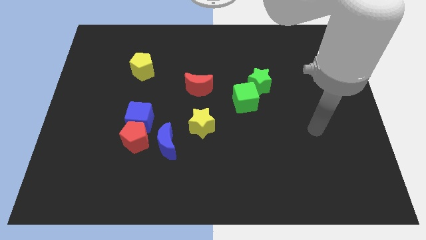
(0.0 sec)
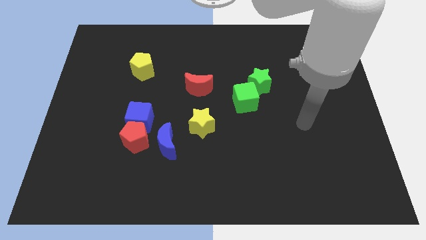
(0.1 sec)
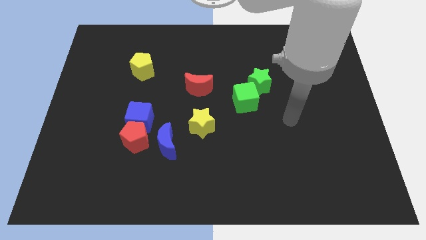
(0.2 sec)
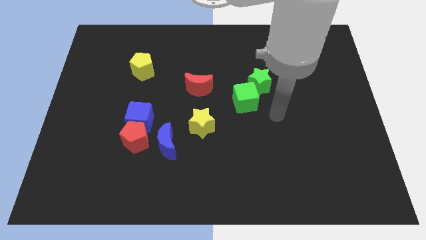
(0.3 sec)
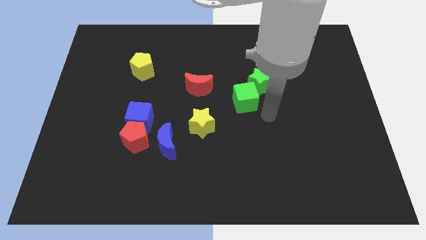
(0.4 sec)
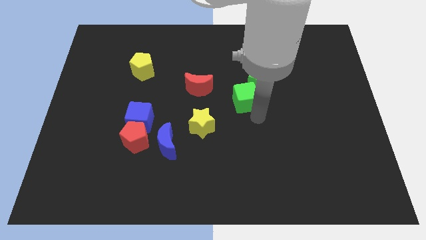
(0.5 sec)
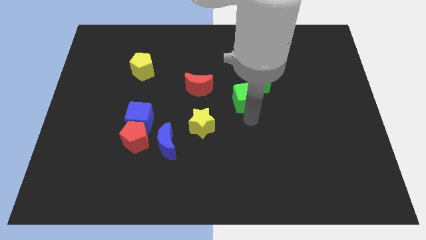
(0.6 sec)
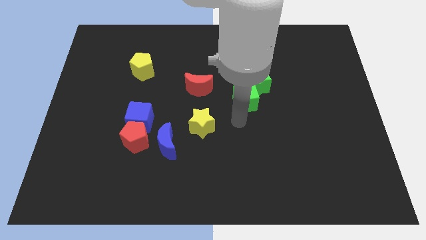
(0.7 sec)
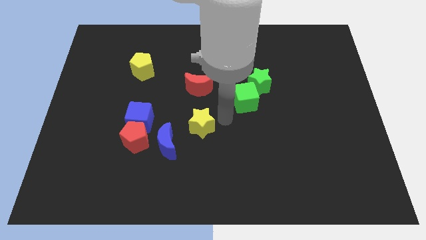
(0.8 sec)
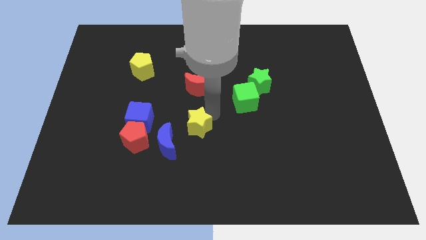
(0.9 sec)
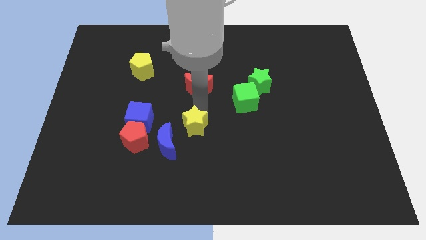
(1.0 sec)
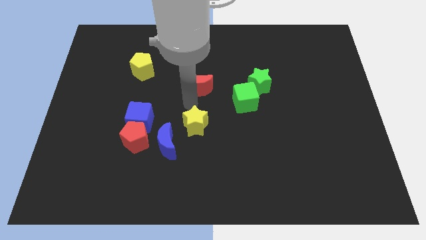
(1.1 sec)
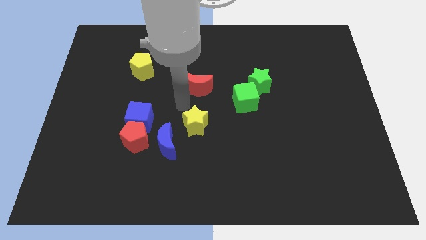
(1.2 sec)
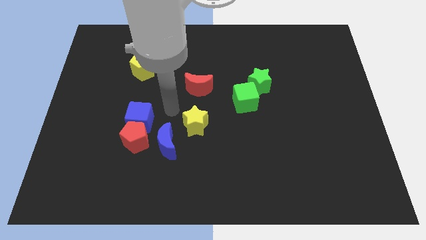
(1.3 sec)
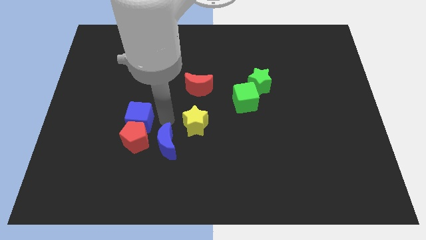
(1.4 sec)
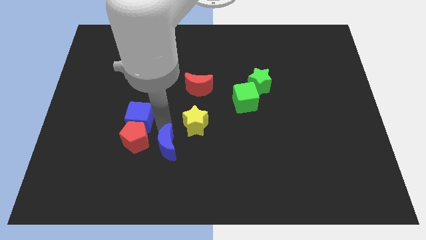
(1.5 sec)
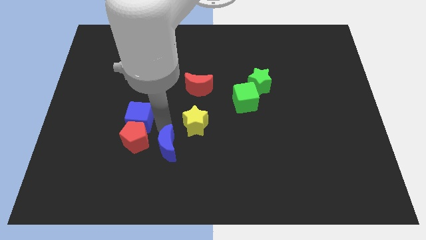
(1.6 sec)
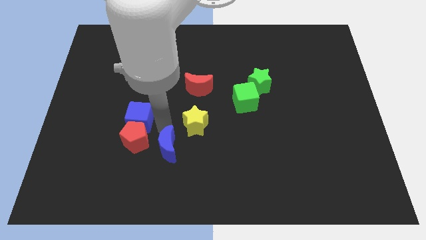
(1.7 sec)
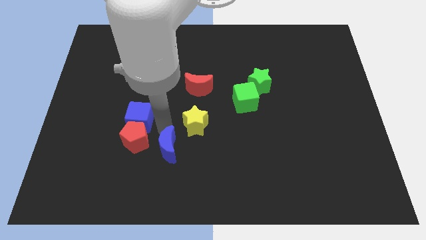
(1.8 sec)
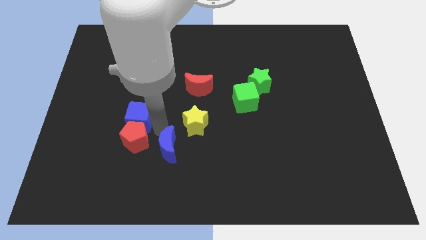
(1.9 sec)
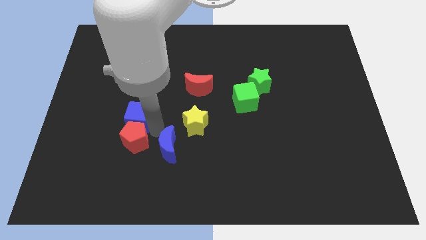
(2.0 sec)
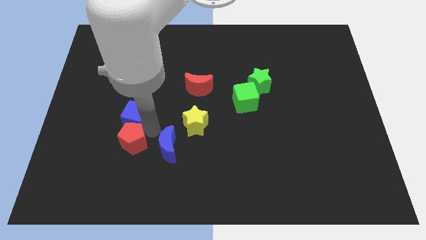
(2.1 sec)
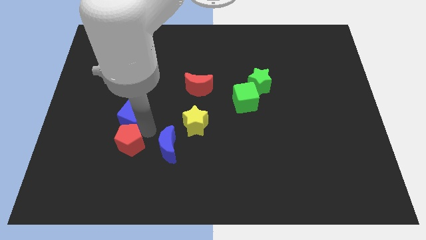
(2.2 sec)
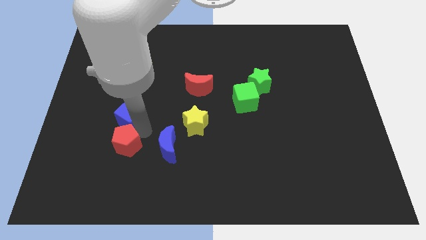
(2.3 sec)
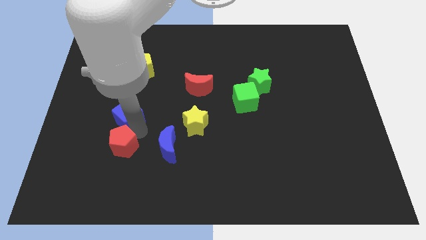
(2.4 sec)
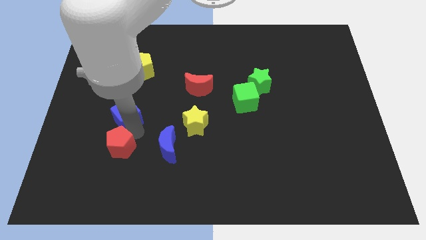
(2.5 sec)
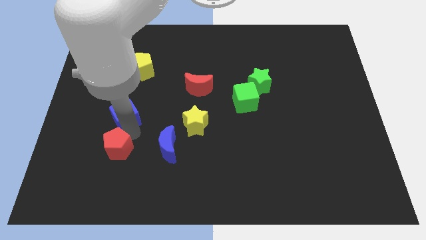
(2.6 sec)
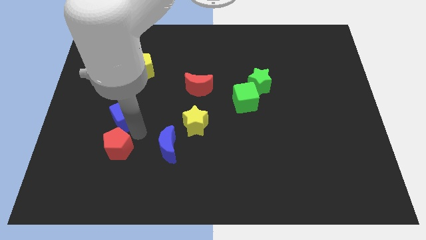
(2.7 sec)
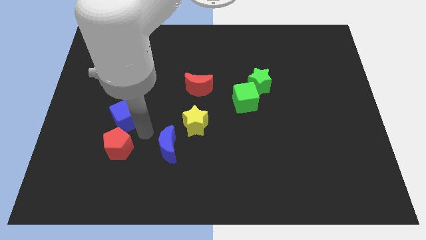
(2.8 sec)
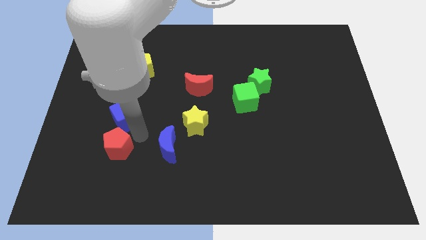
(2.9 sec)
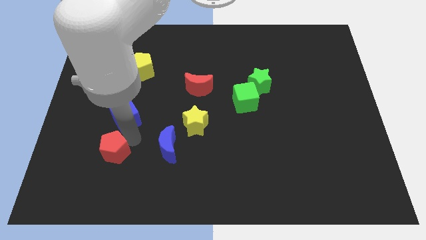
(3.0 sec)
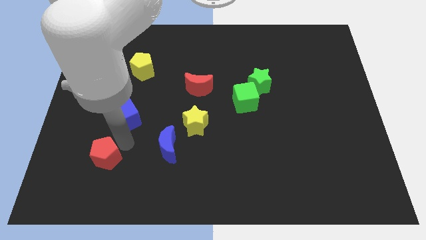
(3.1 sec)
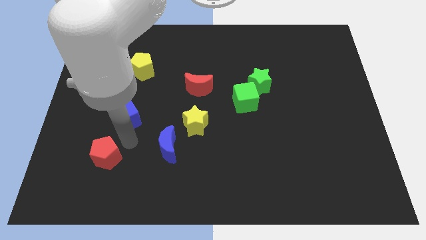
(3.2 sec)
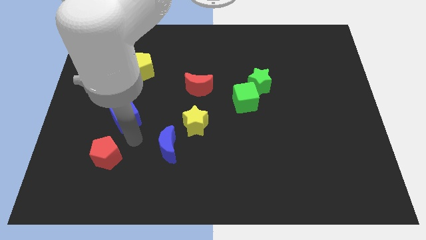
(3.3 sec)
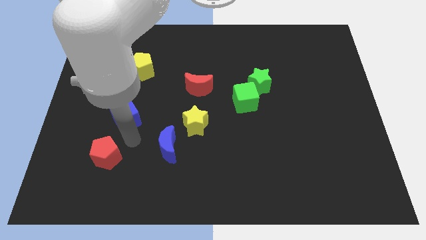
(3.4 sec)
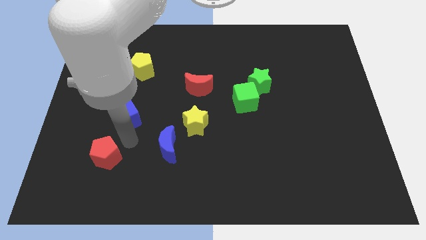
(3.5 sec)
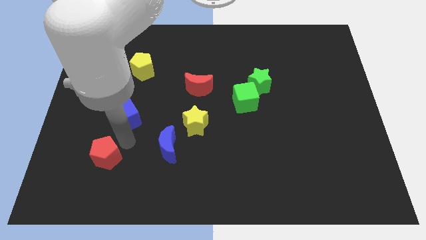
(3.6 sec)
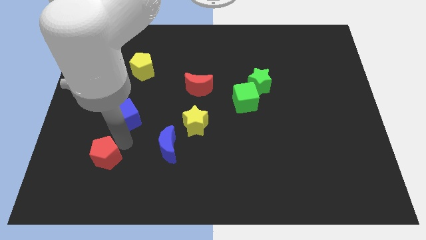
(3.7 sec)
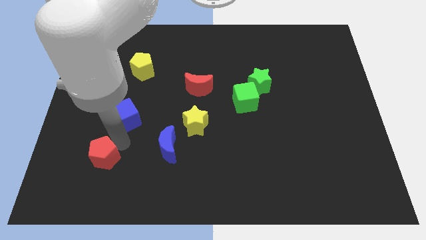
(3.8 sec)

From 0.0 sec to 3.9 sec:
pull the red pentagon apart from the blue cube and blue moon

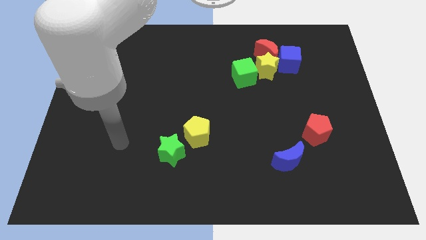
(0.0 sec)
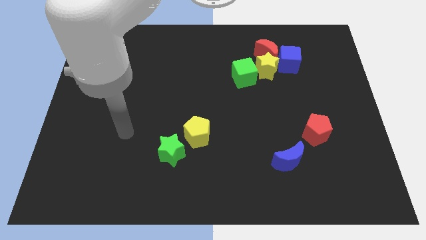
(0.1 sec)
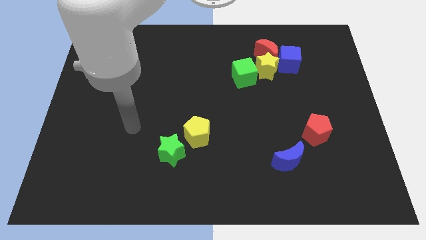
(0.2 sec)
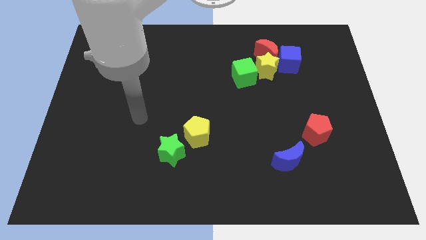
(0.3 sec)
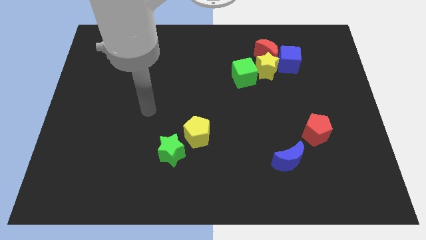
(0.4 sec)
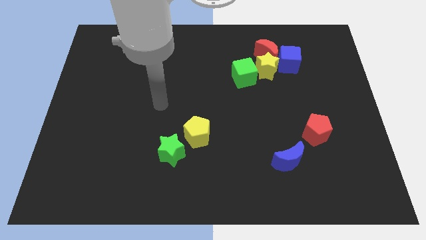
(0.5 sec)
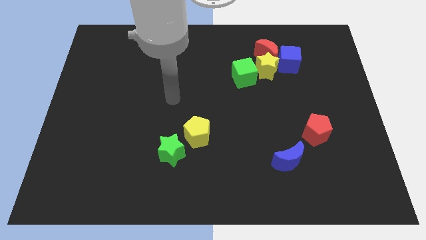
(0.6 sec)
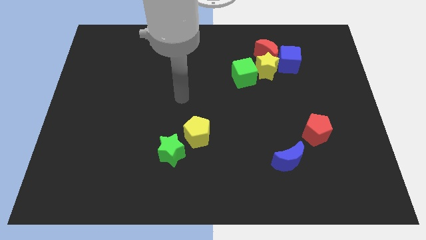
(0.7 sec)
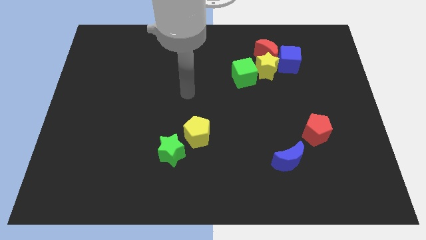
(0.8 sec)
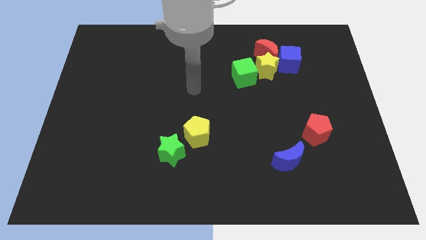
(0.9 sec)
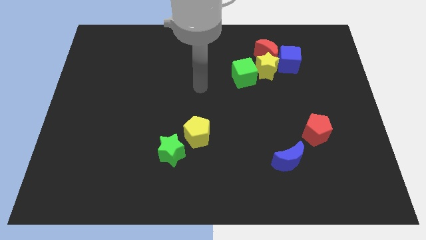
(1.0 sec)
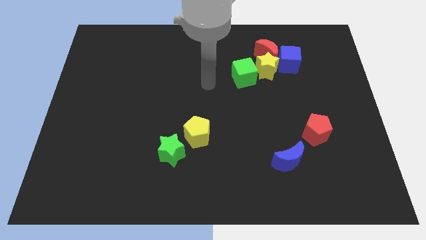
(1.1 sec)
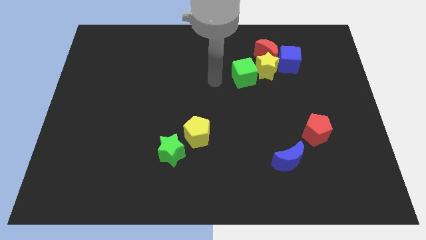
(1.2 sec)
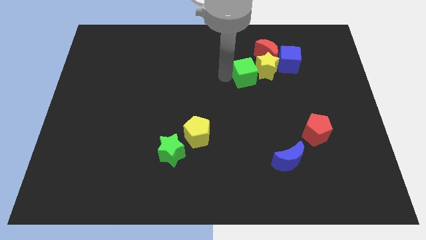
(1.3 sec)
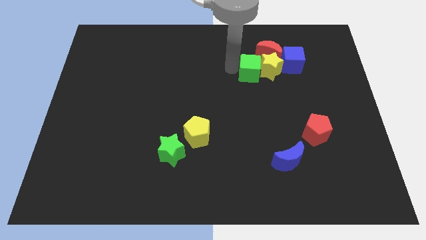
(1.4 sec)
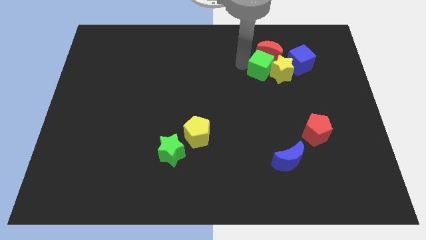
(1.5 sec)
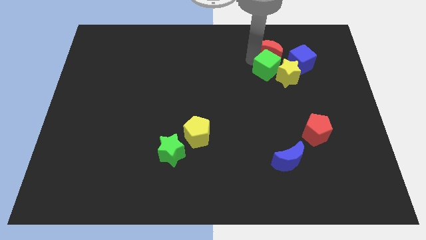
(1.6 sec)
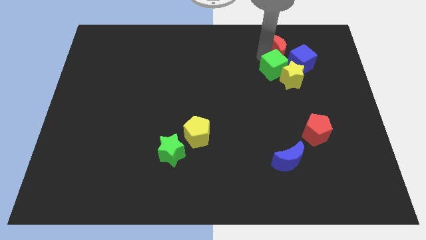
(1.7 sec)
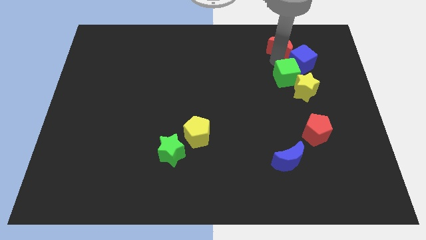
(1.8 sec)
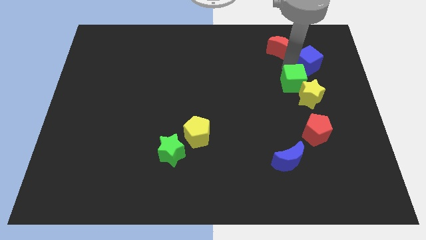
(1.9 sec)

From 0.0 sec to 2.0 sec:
separate the yellow star from the clump

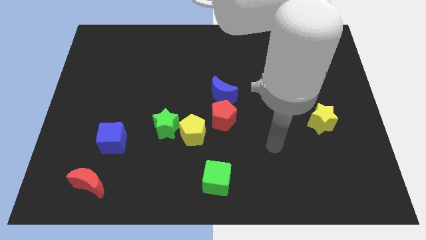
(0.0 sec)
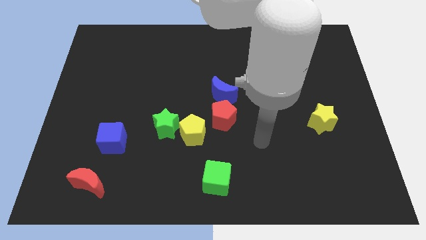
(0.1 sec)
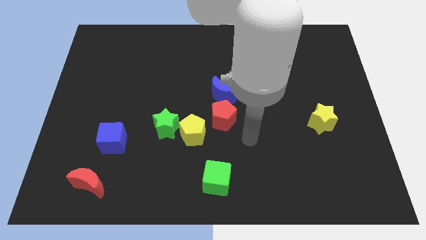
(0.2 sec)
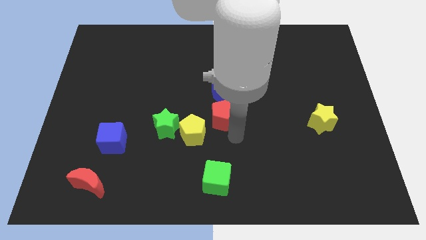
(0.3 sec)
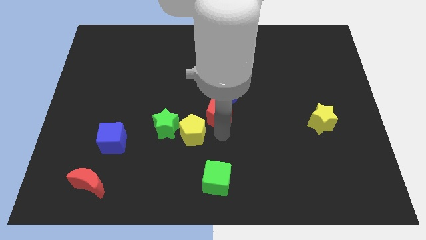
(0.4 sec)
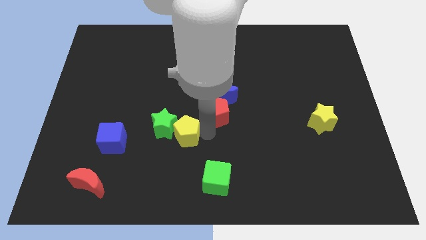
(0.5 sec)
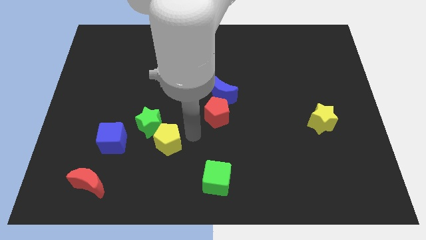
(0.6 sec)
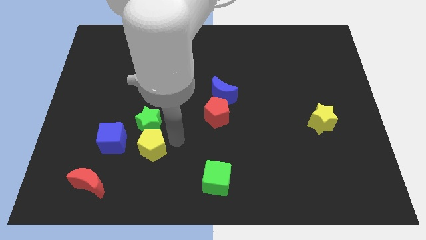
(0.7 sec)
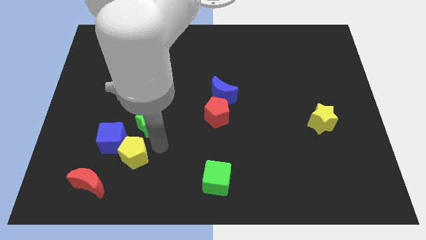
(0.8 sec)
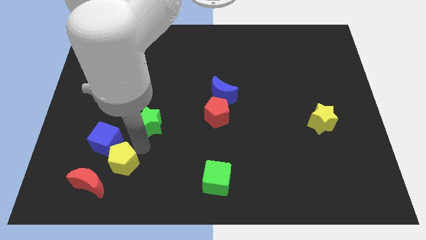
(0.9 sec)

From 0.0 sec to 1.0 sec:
move the green star away from the yellow pentagon

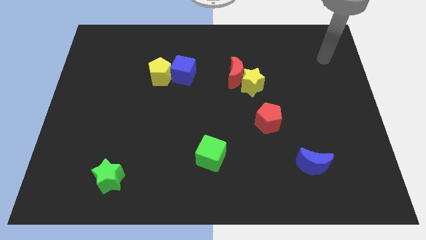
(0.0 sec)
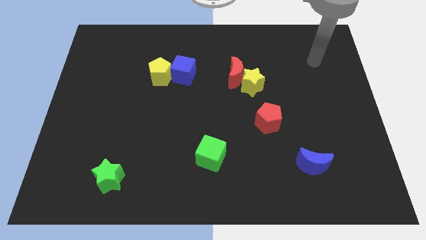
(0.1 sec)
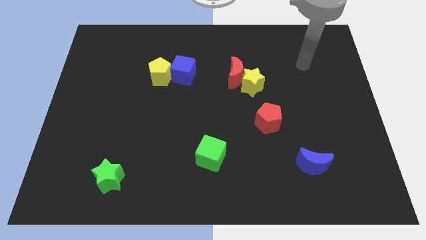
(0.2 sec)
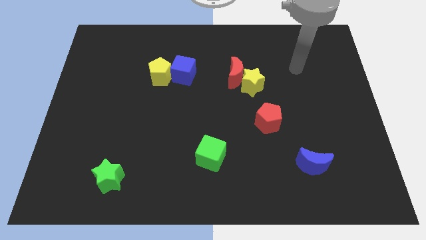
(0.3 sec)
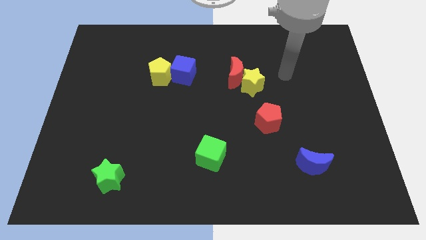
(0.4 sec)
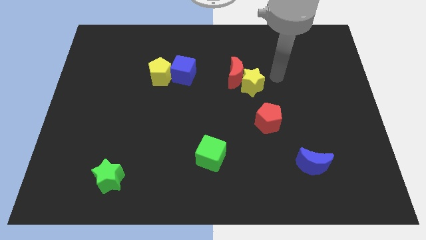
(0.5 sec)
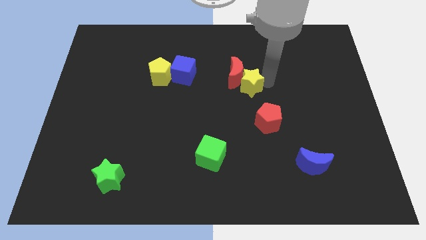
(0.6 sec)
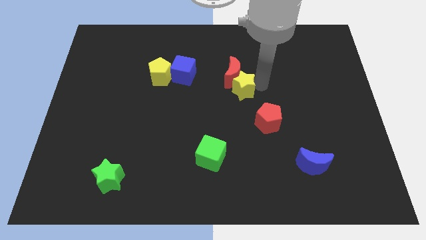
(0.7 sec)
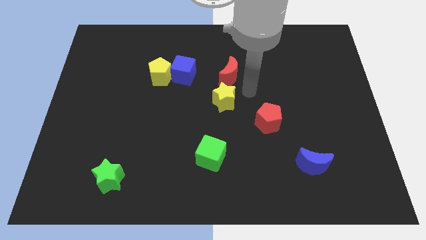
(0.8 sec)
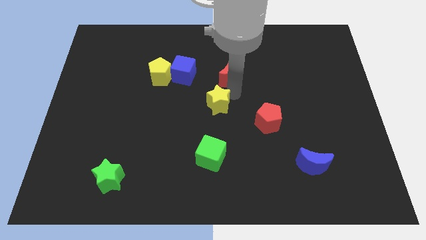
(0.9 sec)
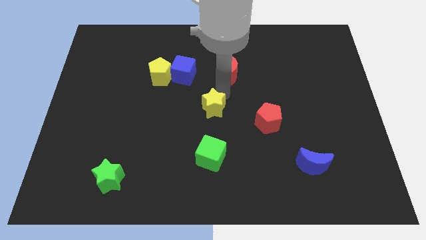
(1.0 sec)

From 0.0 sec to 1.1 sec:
pull the red moon apart from the yellow star

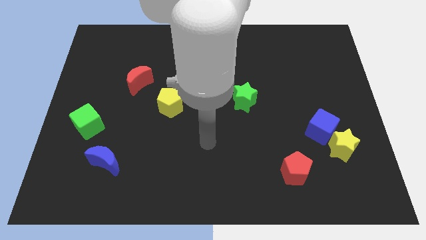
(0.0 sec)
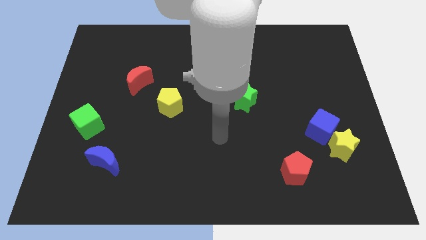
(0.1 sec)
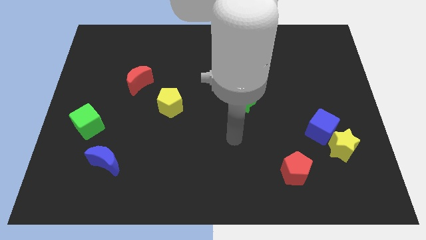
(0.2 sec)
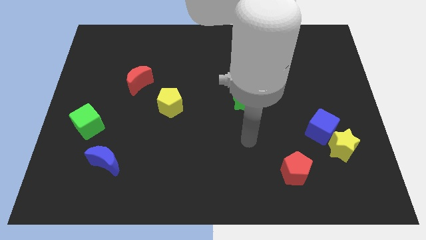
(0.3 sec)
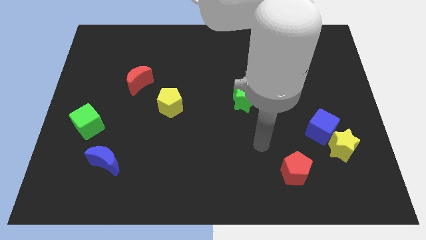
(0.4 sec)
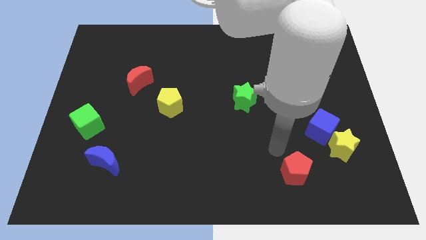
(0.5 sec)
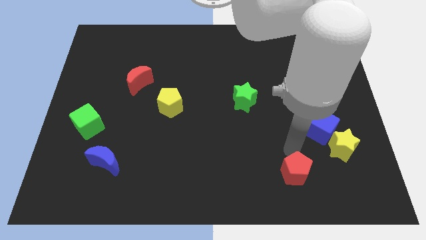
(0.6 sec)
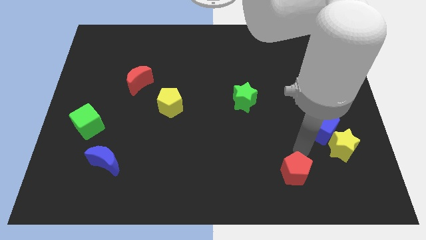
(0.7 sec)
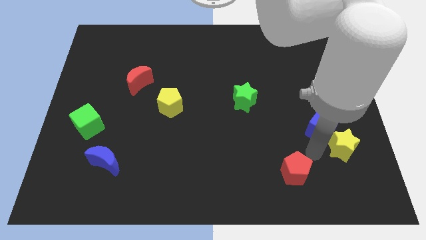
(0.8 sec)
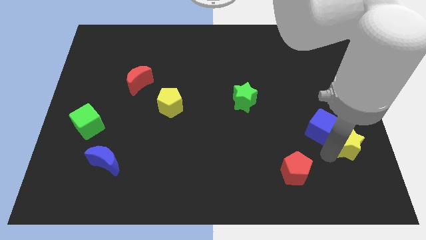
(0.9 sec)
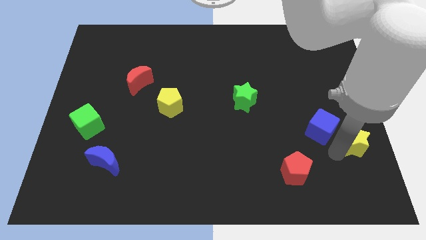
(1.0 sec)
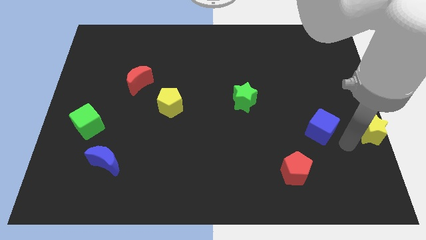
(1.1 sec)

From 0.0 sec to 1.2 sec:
separate the blue cube from the yellow star
